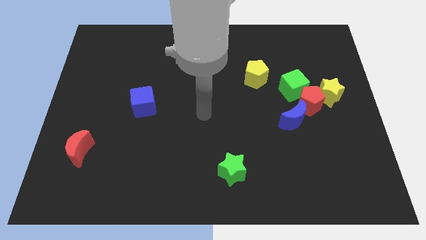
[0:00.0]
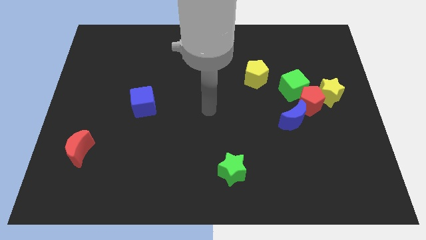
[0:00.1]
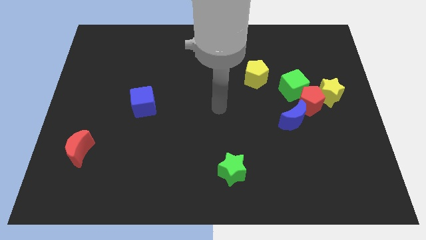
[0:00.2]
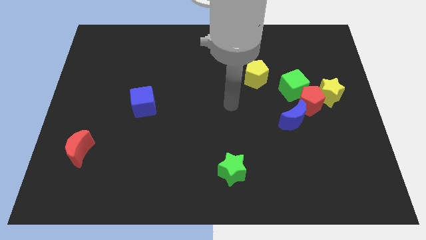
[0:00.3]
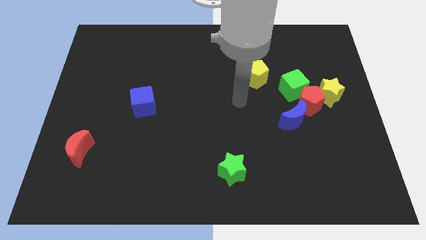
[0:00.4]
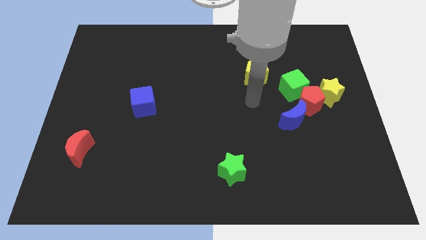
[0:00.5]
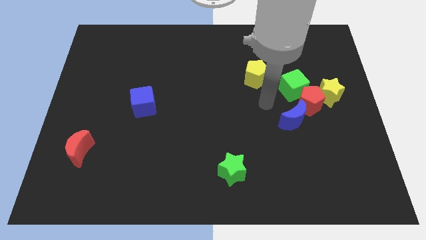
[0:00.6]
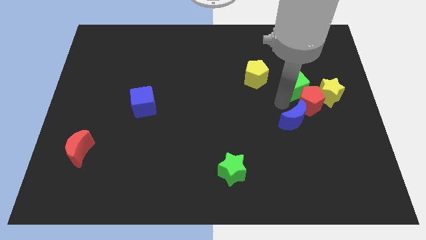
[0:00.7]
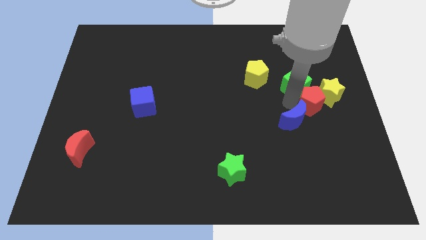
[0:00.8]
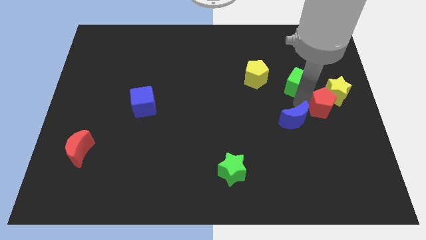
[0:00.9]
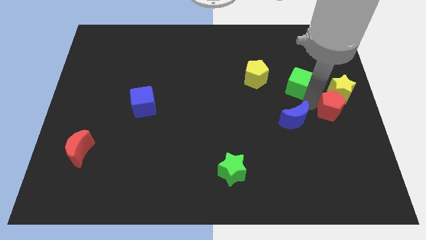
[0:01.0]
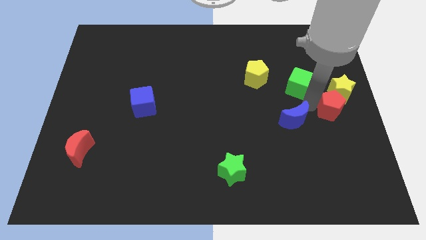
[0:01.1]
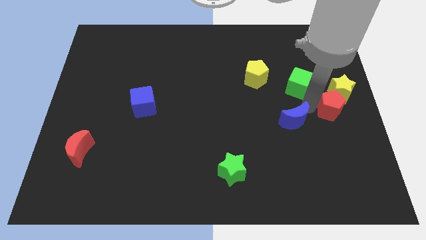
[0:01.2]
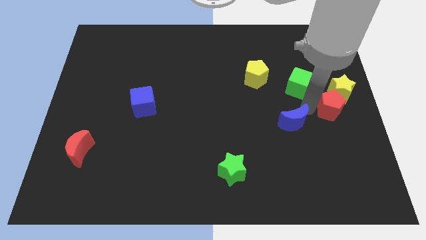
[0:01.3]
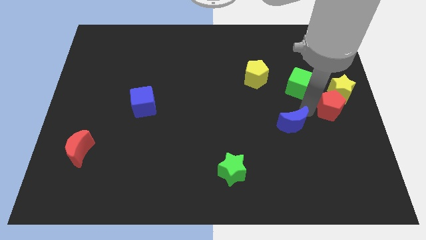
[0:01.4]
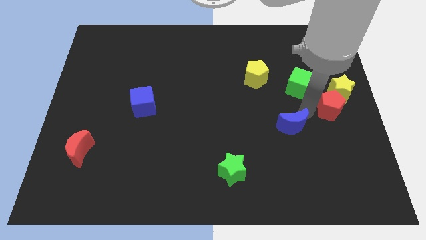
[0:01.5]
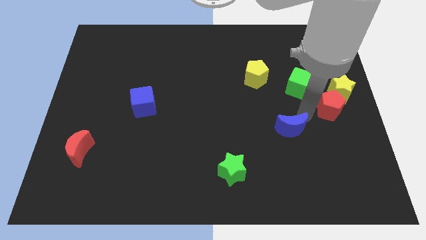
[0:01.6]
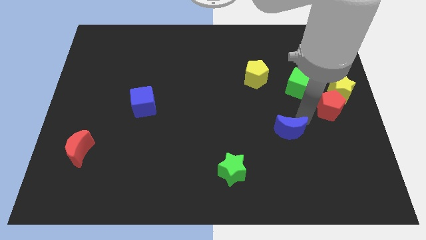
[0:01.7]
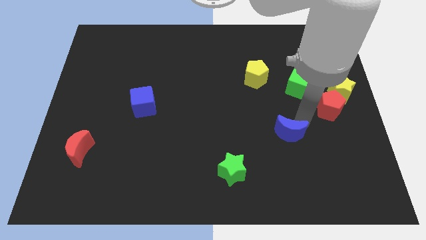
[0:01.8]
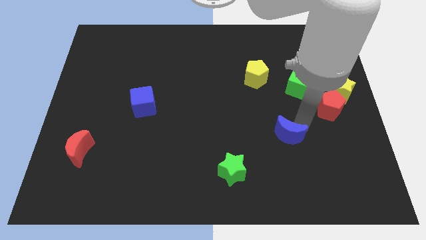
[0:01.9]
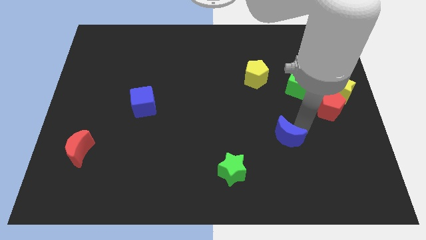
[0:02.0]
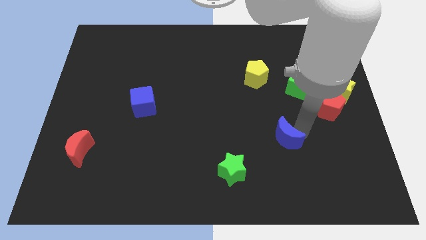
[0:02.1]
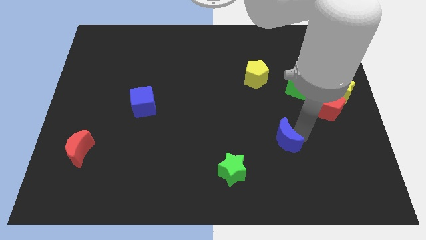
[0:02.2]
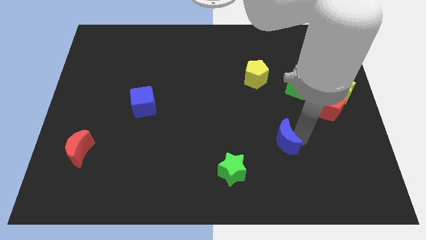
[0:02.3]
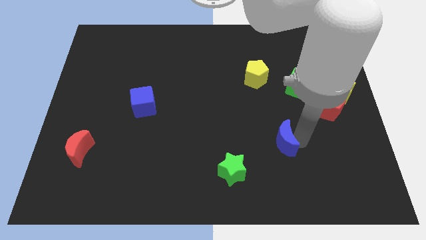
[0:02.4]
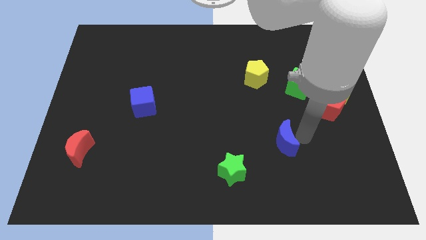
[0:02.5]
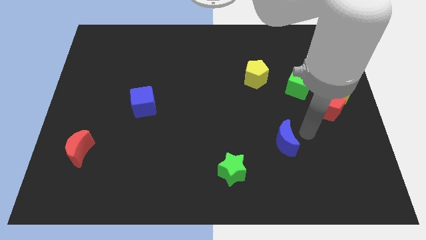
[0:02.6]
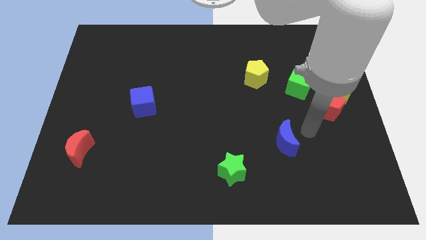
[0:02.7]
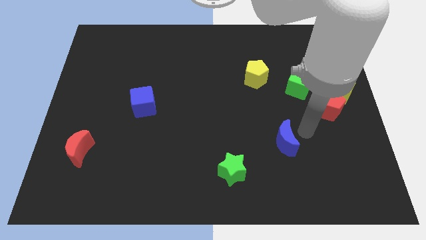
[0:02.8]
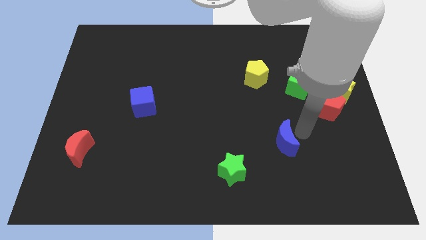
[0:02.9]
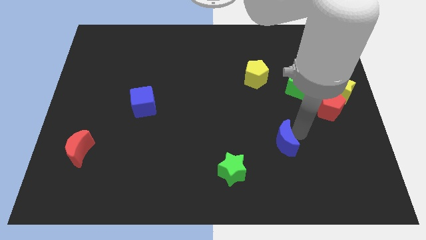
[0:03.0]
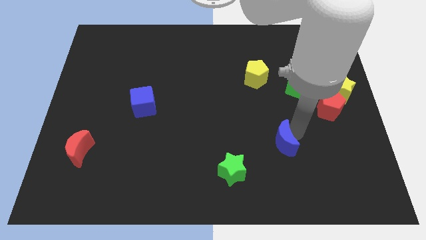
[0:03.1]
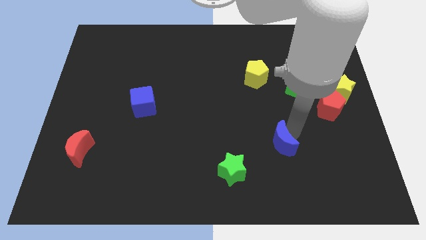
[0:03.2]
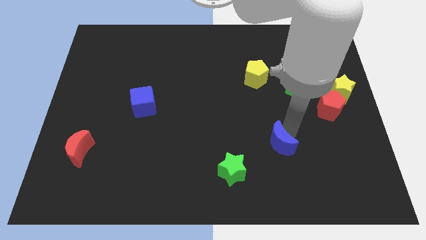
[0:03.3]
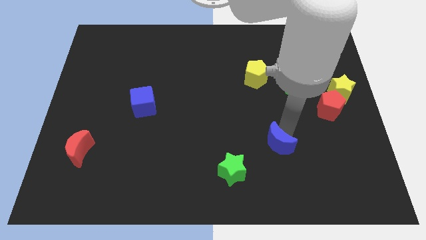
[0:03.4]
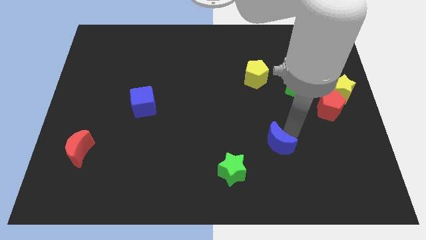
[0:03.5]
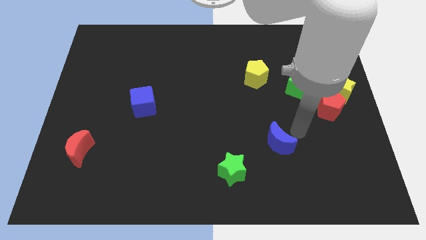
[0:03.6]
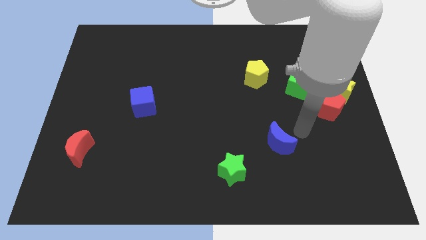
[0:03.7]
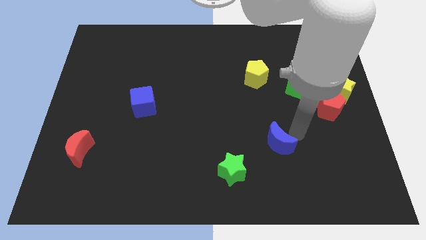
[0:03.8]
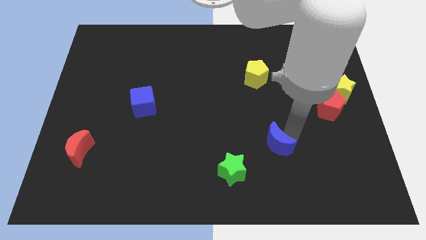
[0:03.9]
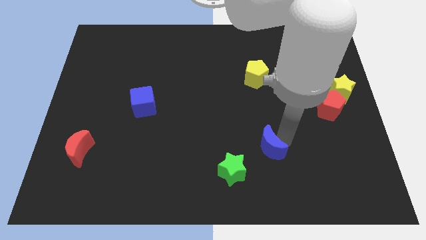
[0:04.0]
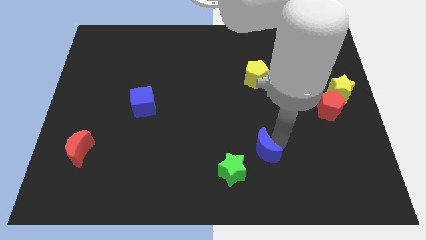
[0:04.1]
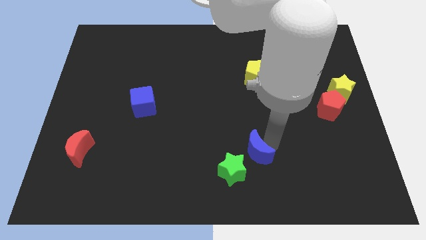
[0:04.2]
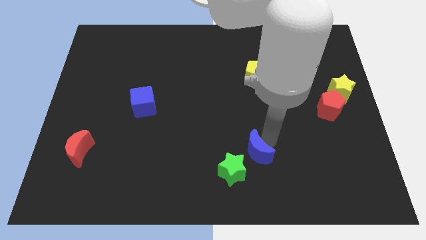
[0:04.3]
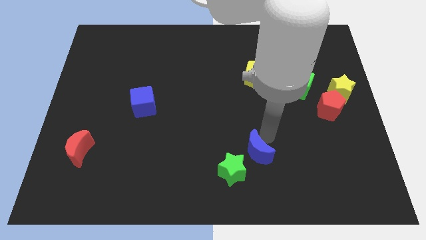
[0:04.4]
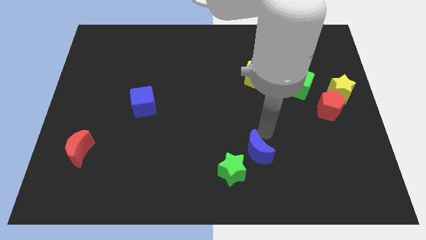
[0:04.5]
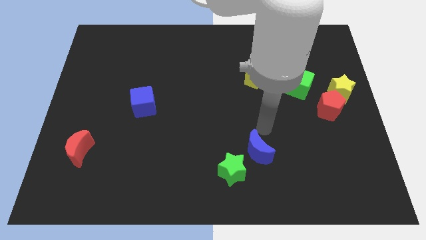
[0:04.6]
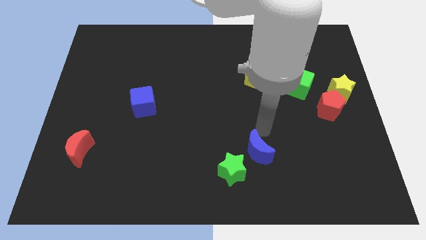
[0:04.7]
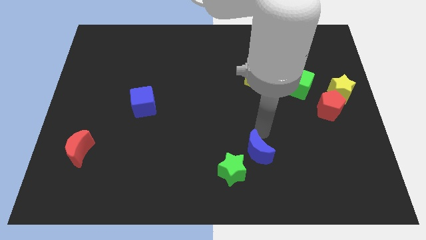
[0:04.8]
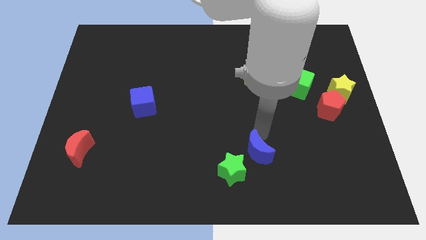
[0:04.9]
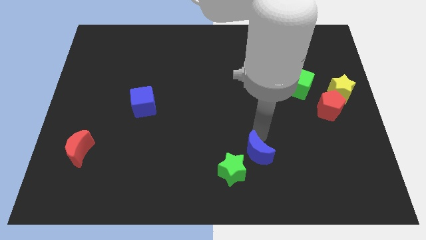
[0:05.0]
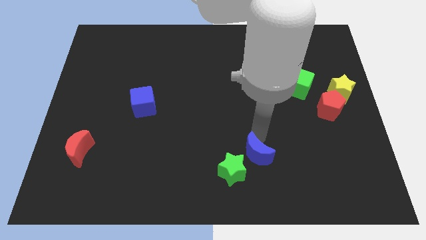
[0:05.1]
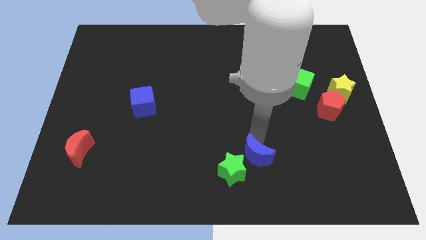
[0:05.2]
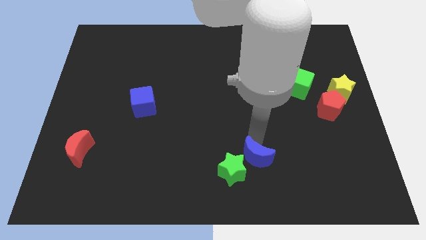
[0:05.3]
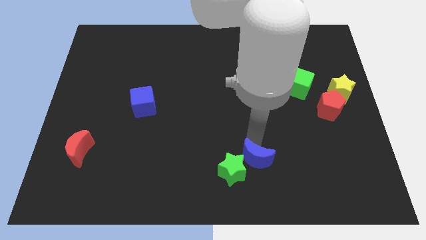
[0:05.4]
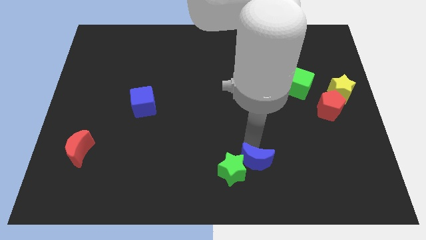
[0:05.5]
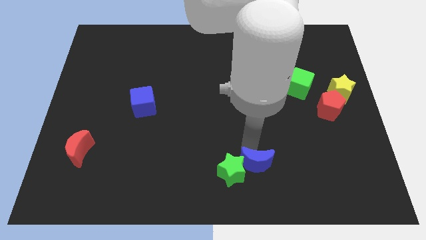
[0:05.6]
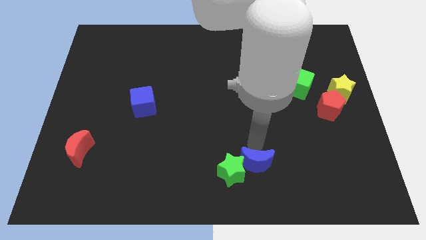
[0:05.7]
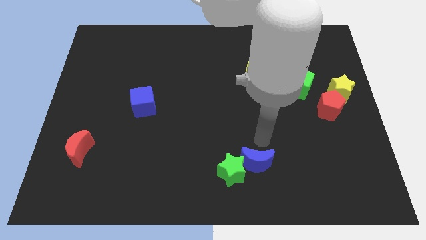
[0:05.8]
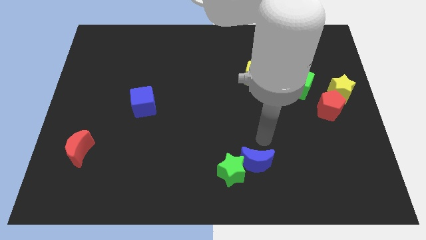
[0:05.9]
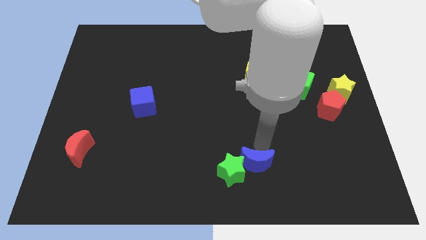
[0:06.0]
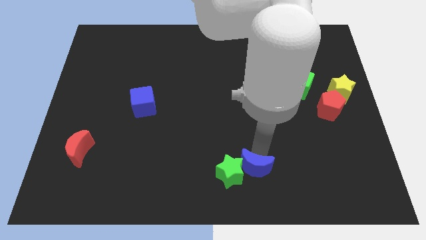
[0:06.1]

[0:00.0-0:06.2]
put the blue moon to the bottom side
